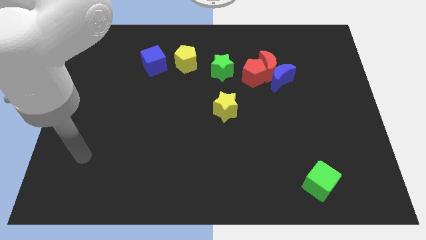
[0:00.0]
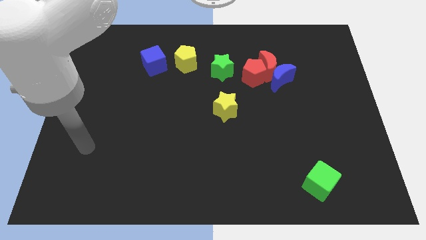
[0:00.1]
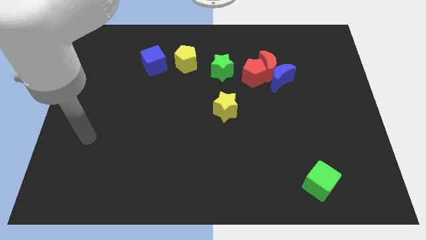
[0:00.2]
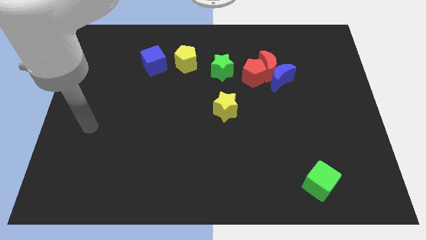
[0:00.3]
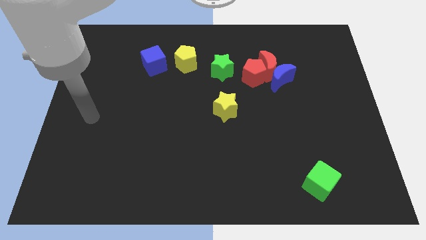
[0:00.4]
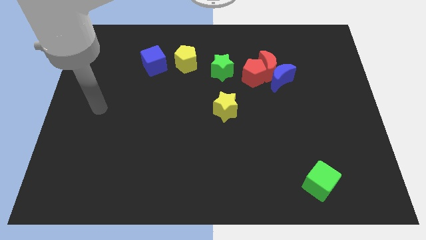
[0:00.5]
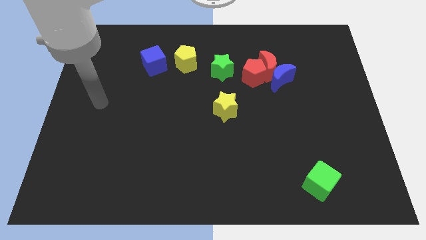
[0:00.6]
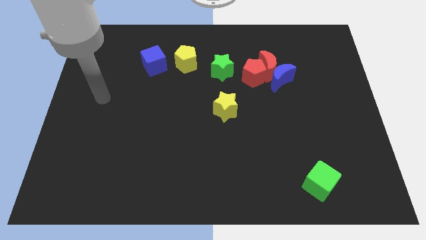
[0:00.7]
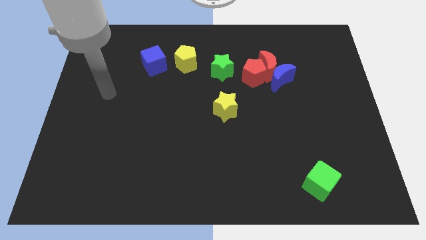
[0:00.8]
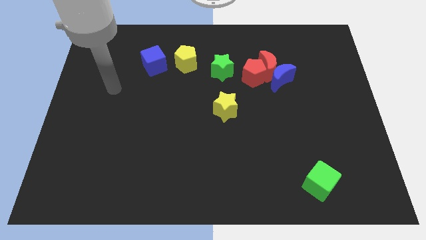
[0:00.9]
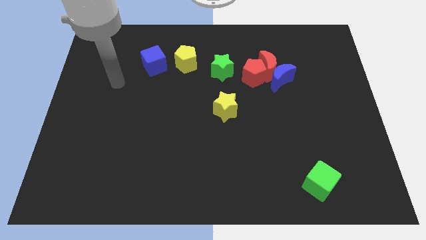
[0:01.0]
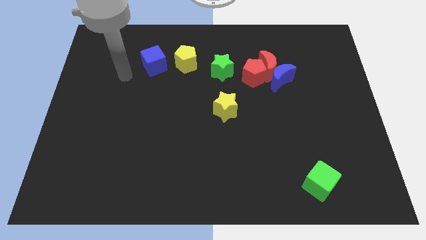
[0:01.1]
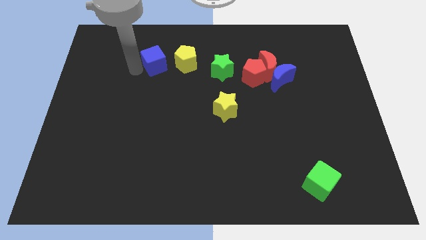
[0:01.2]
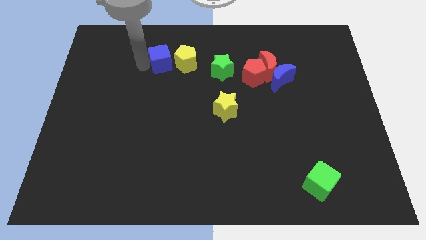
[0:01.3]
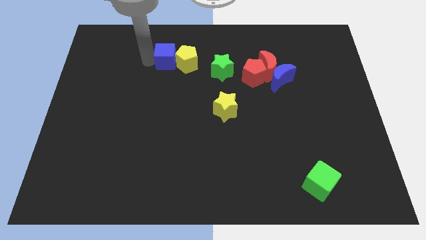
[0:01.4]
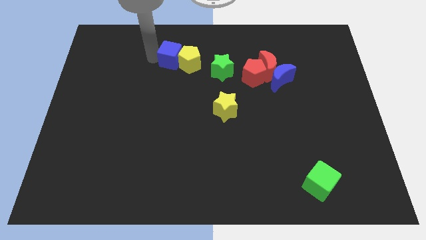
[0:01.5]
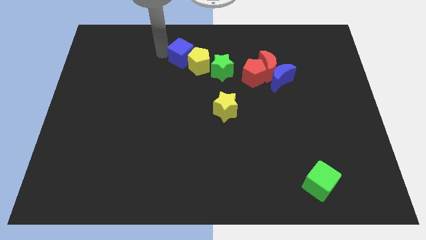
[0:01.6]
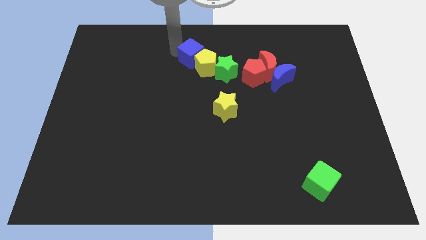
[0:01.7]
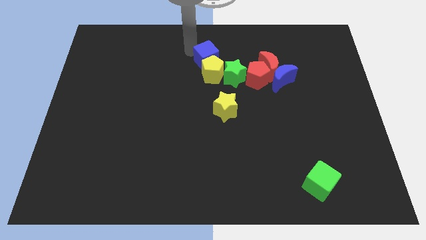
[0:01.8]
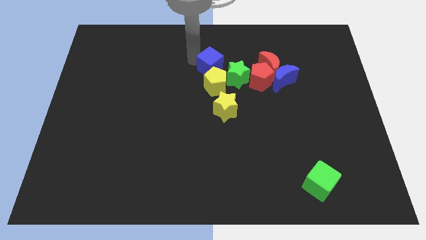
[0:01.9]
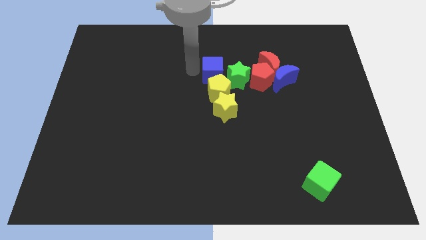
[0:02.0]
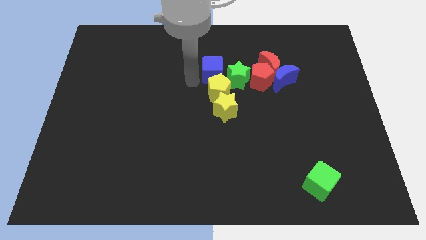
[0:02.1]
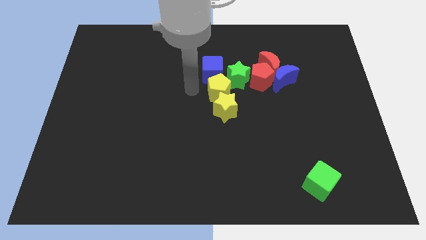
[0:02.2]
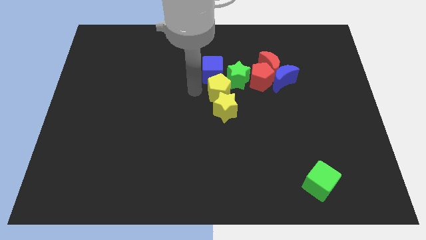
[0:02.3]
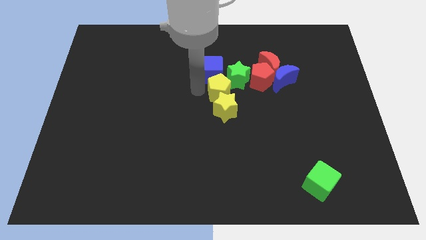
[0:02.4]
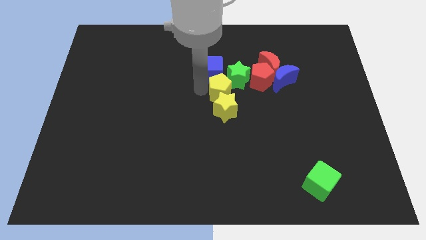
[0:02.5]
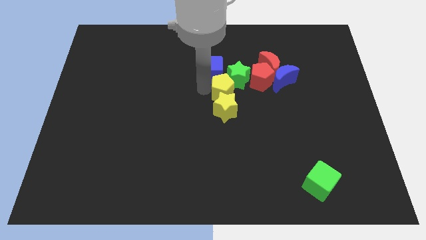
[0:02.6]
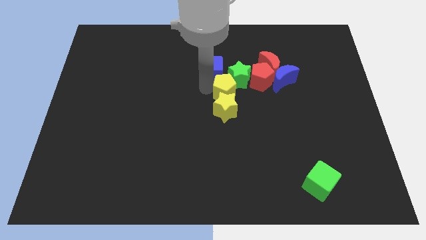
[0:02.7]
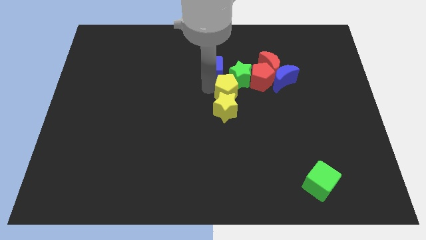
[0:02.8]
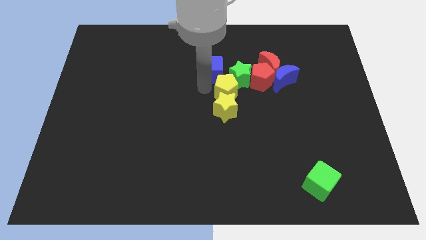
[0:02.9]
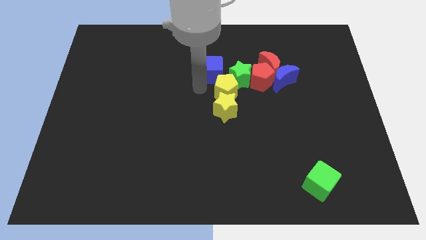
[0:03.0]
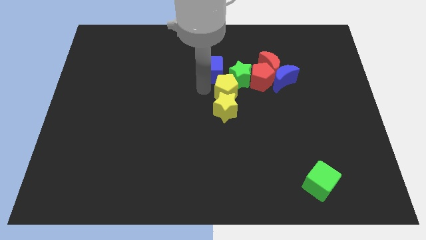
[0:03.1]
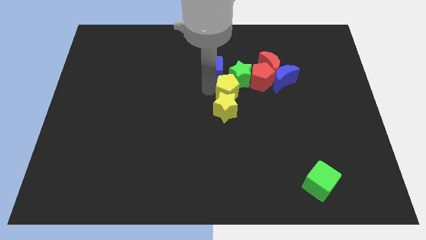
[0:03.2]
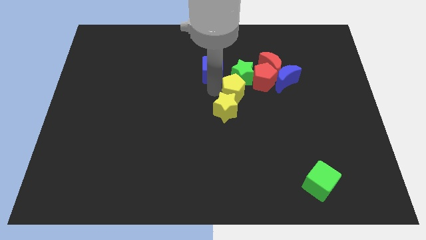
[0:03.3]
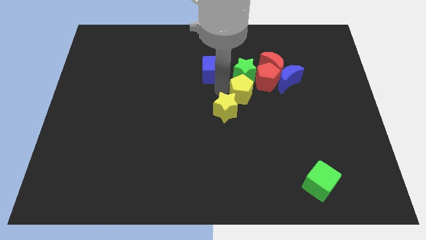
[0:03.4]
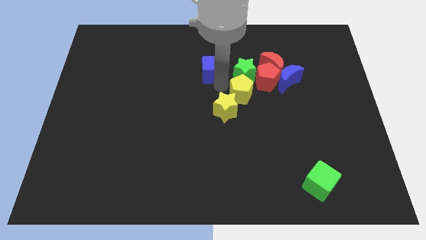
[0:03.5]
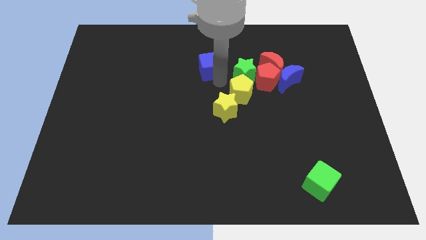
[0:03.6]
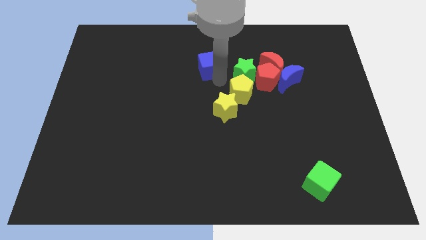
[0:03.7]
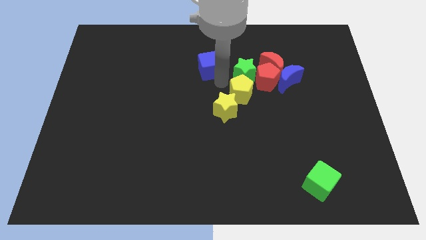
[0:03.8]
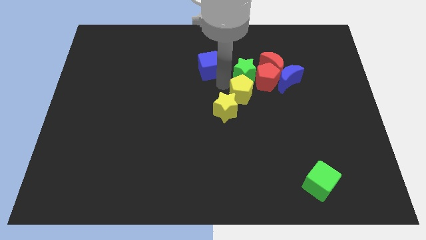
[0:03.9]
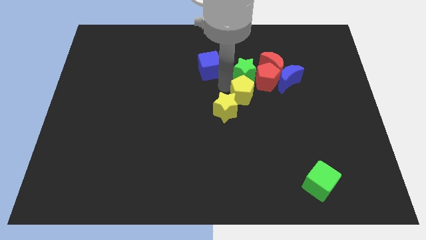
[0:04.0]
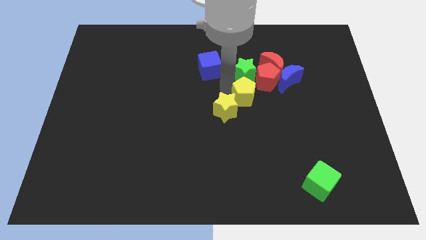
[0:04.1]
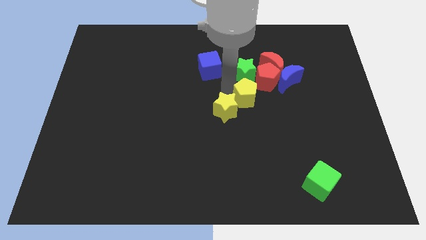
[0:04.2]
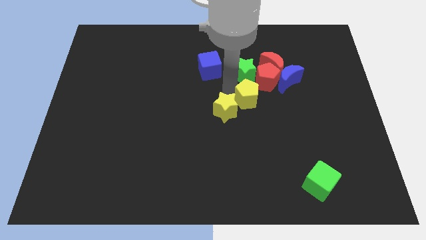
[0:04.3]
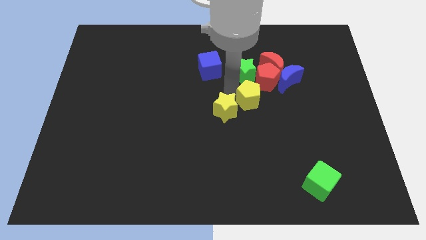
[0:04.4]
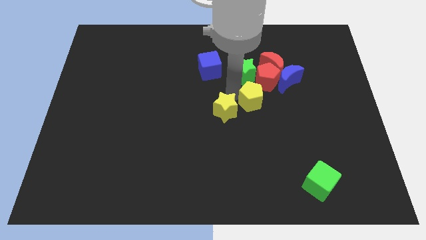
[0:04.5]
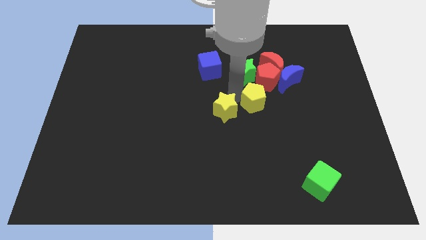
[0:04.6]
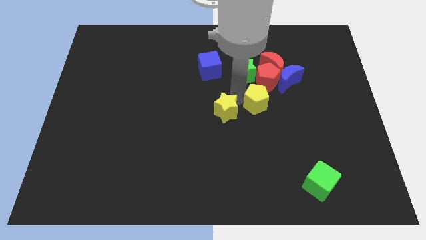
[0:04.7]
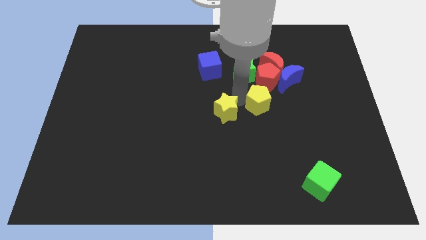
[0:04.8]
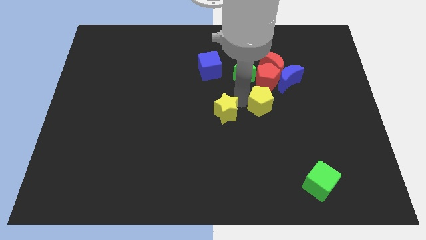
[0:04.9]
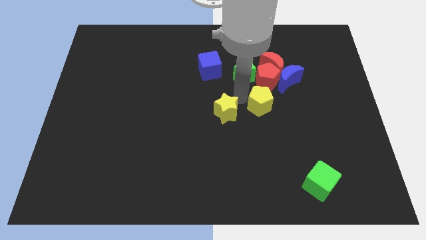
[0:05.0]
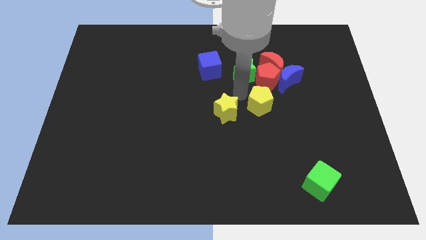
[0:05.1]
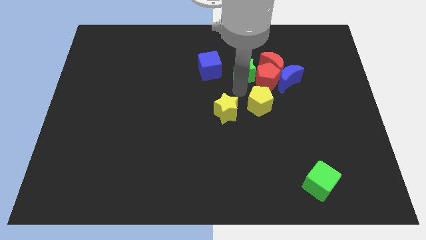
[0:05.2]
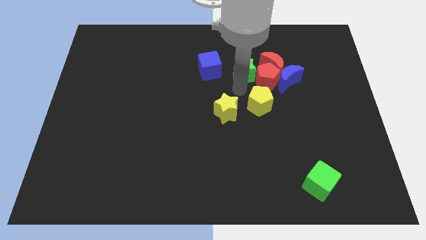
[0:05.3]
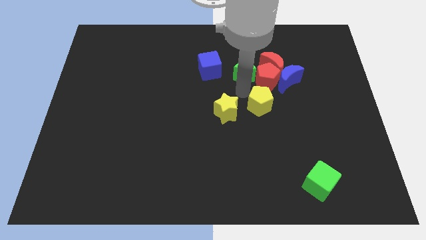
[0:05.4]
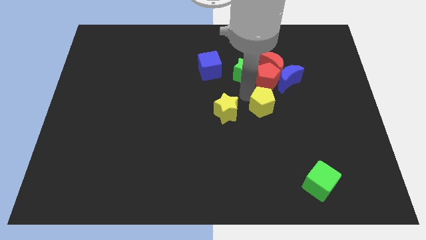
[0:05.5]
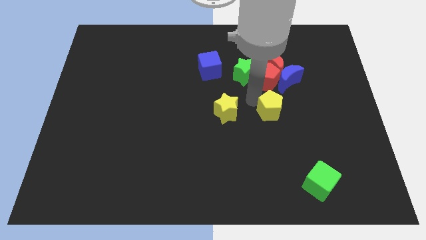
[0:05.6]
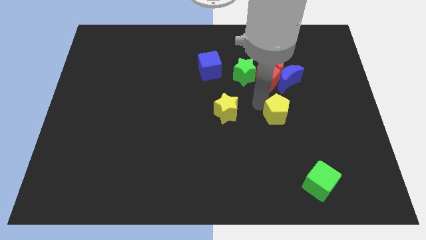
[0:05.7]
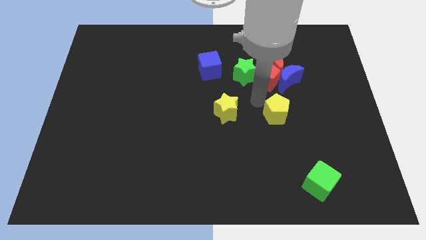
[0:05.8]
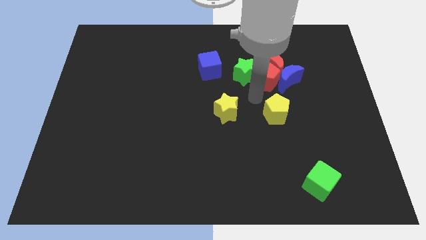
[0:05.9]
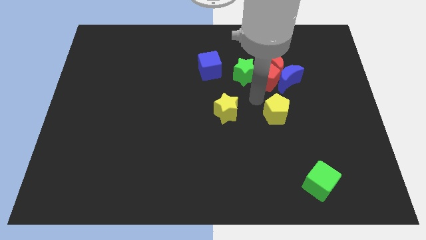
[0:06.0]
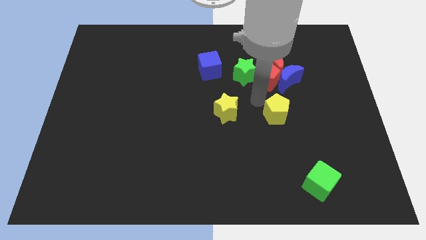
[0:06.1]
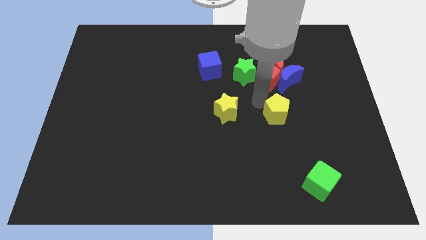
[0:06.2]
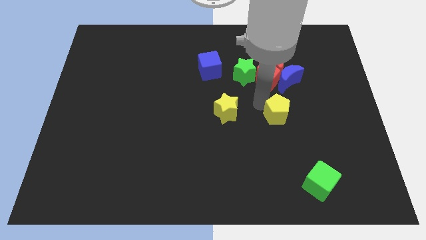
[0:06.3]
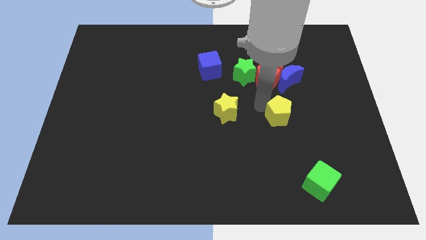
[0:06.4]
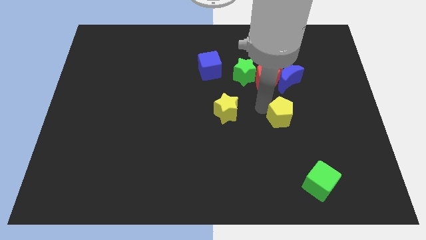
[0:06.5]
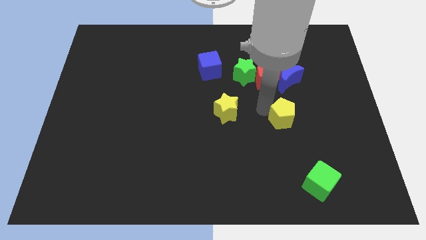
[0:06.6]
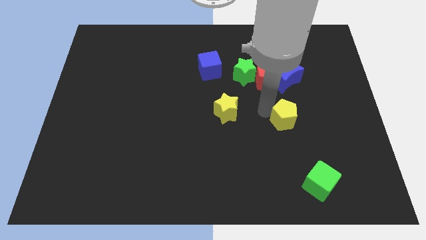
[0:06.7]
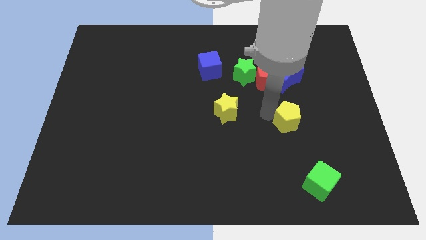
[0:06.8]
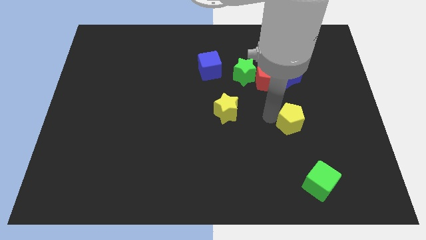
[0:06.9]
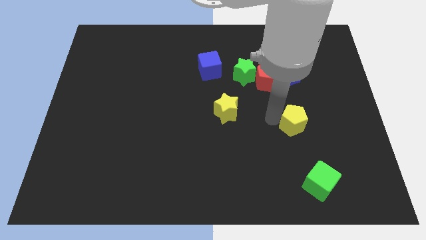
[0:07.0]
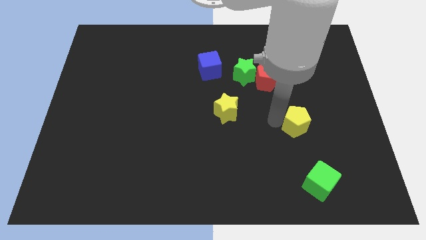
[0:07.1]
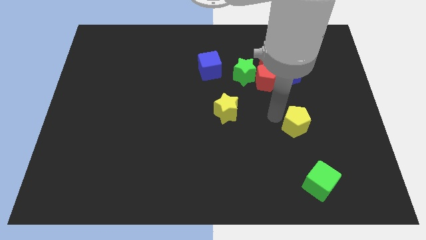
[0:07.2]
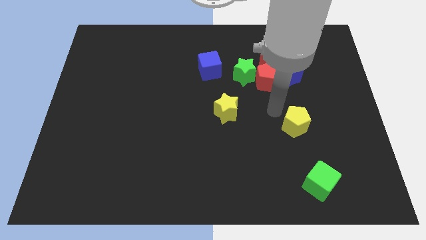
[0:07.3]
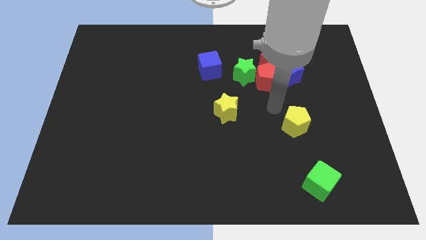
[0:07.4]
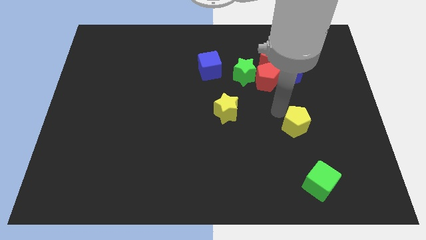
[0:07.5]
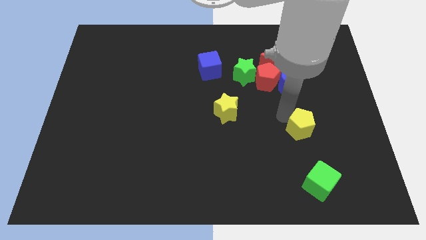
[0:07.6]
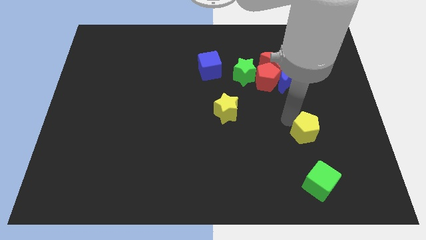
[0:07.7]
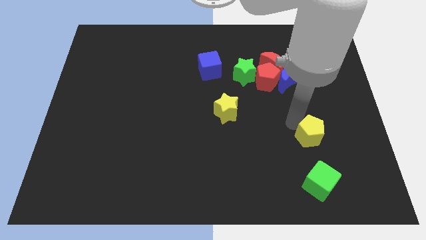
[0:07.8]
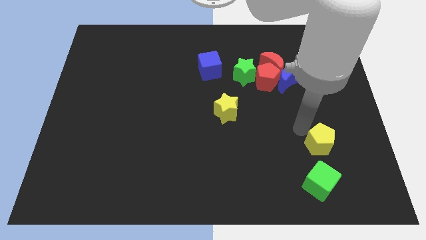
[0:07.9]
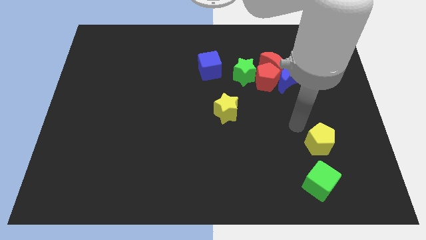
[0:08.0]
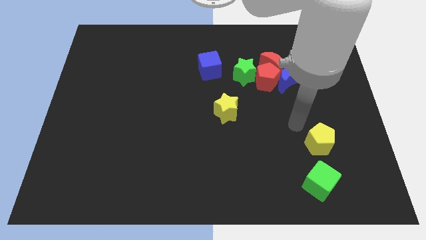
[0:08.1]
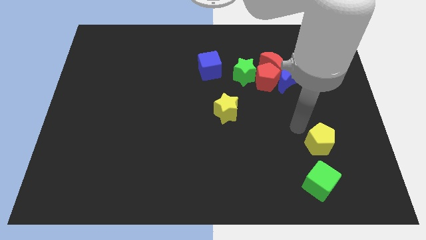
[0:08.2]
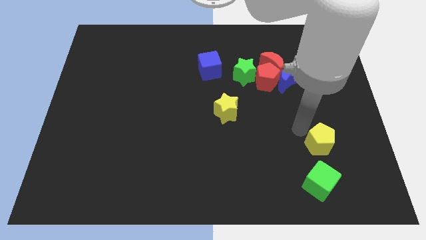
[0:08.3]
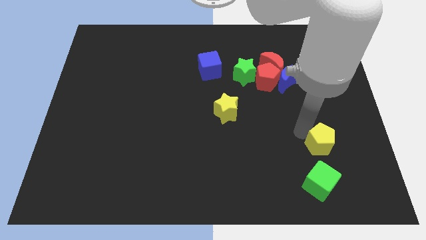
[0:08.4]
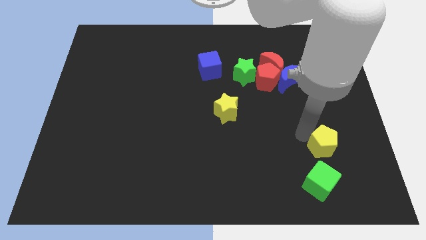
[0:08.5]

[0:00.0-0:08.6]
push the yellow pentagon to the top right side of the green cube
